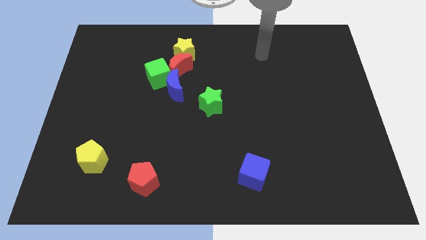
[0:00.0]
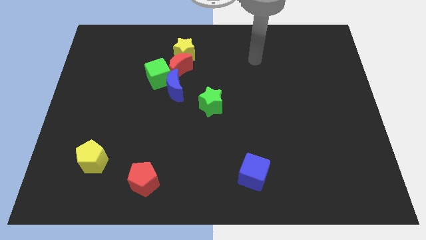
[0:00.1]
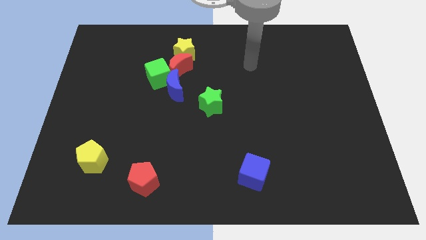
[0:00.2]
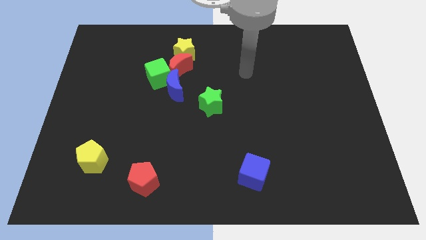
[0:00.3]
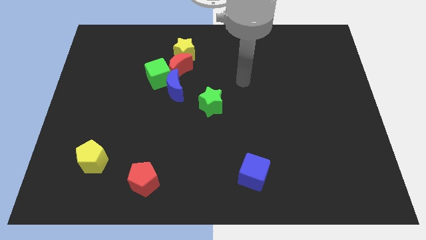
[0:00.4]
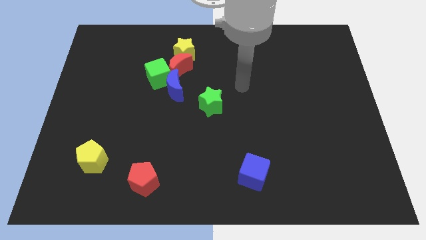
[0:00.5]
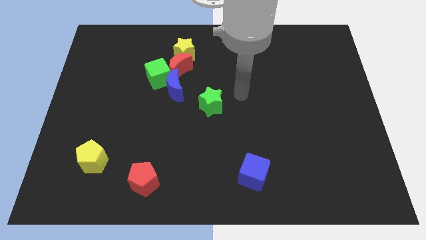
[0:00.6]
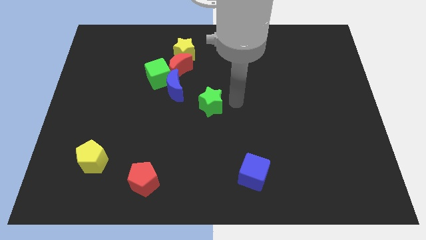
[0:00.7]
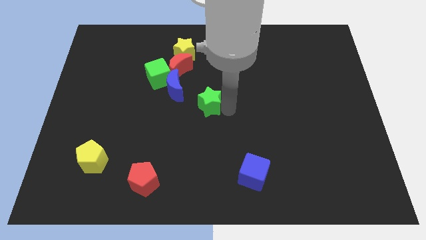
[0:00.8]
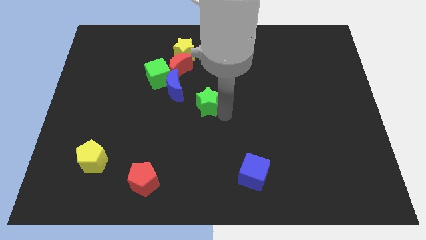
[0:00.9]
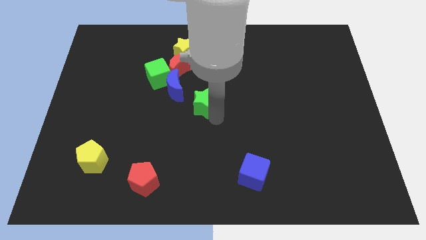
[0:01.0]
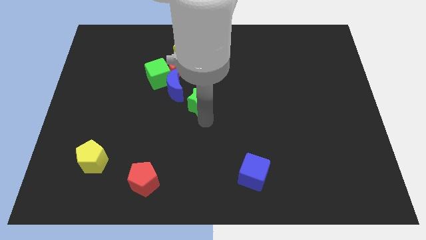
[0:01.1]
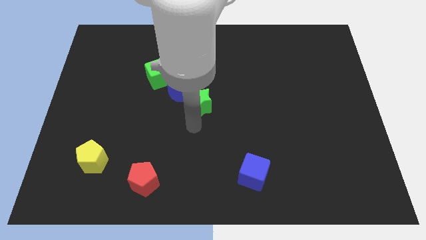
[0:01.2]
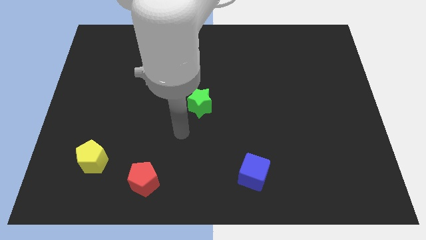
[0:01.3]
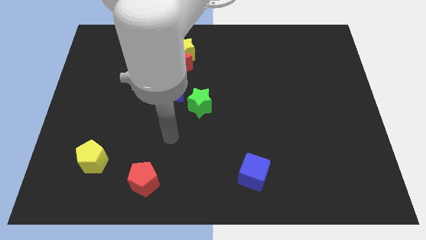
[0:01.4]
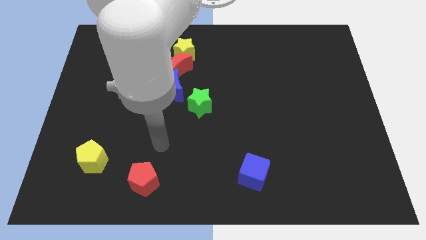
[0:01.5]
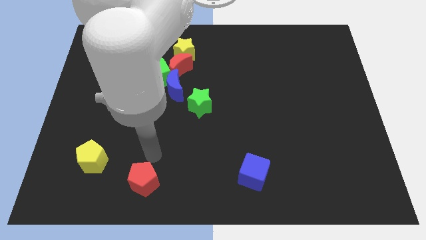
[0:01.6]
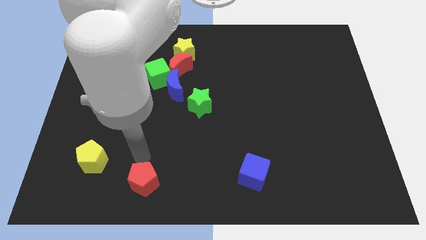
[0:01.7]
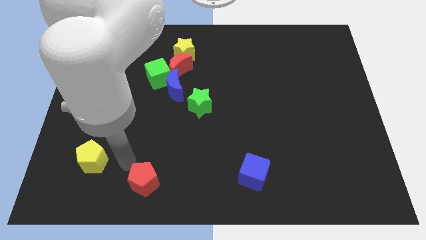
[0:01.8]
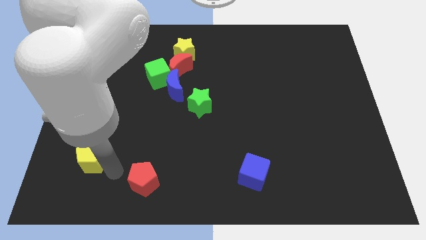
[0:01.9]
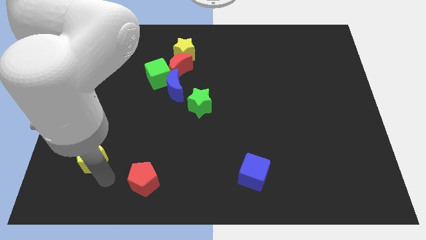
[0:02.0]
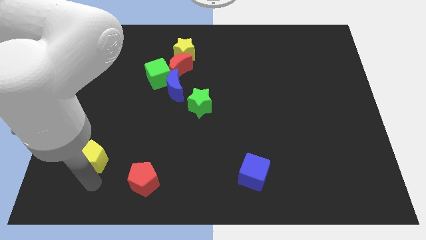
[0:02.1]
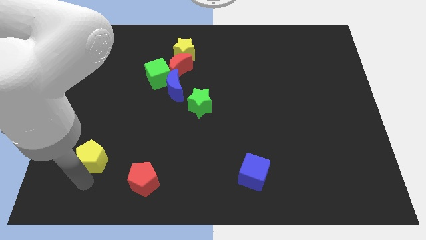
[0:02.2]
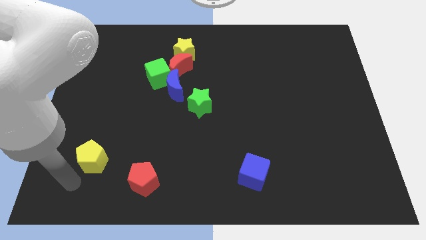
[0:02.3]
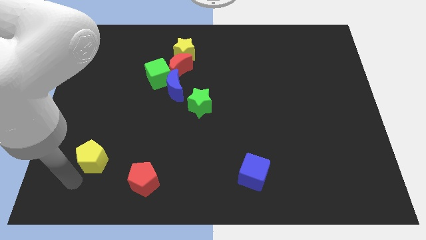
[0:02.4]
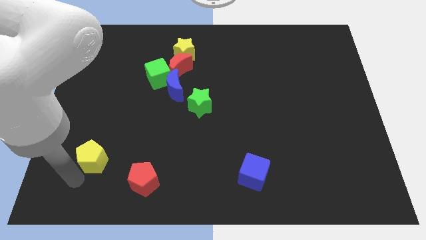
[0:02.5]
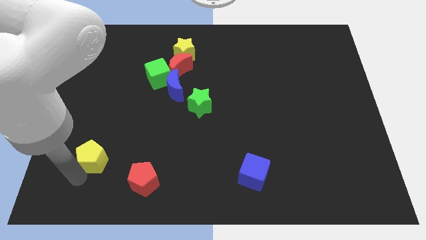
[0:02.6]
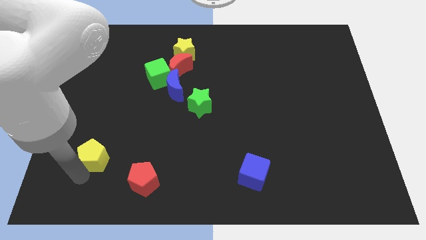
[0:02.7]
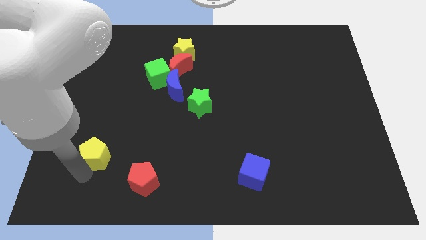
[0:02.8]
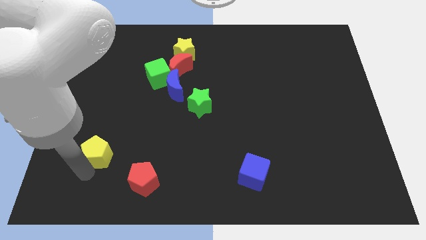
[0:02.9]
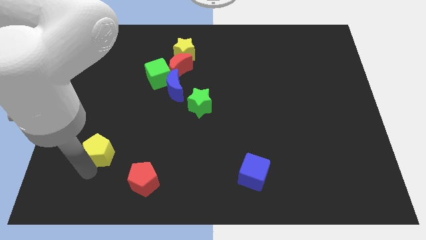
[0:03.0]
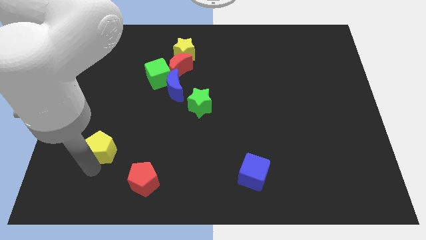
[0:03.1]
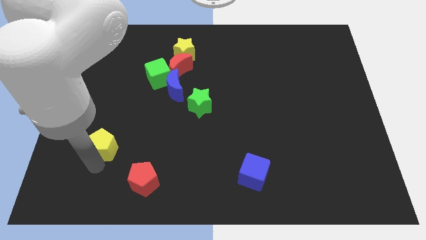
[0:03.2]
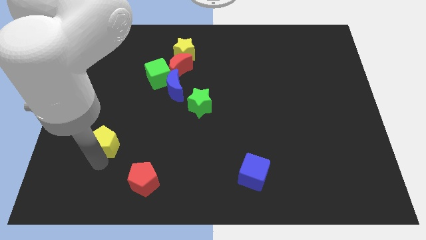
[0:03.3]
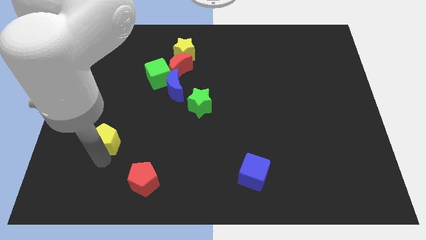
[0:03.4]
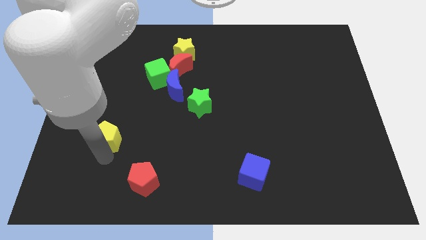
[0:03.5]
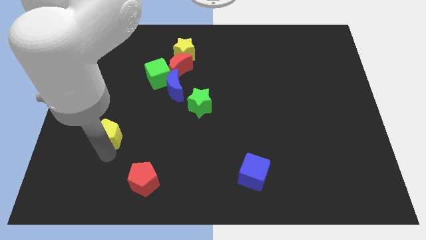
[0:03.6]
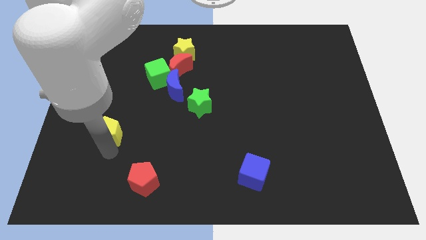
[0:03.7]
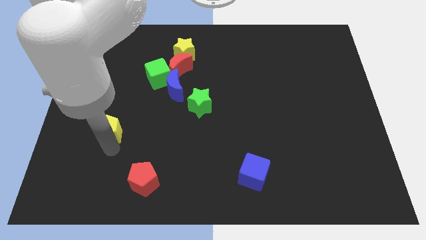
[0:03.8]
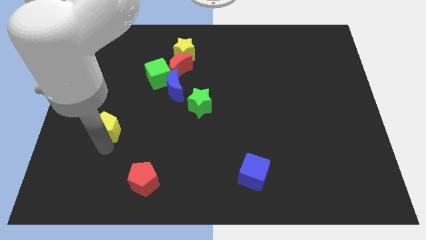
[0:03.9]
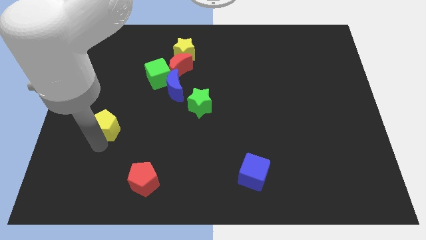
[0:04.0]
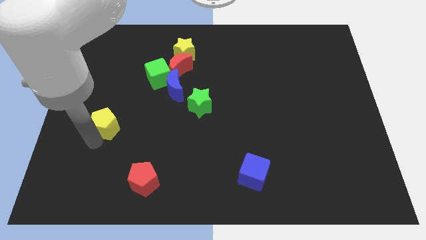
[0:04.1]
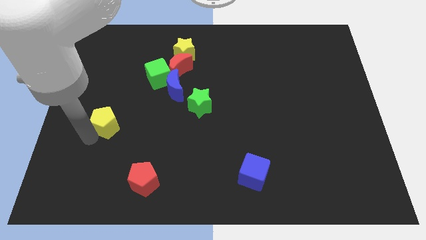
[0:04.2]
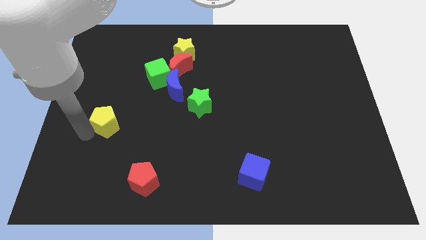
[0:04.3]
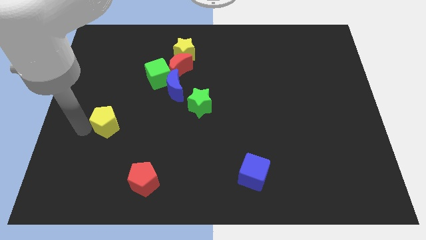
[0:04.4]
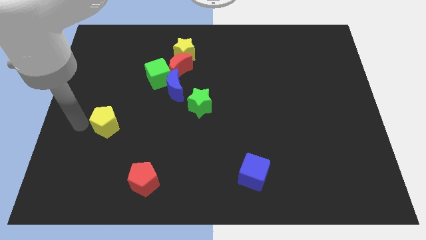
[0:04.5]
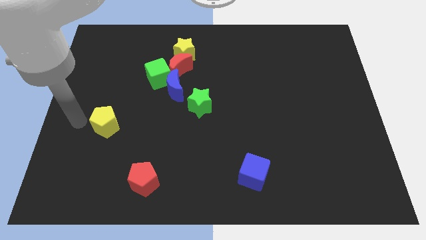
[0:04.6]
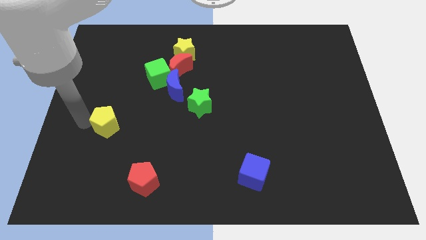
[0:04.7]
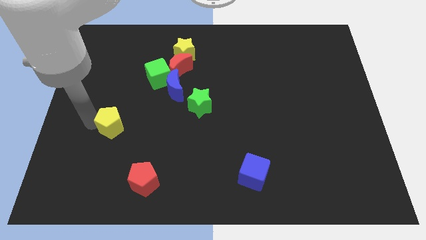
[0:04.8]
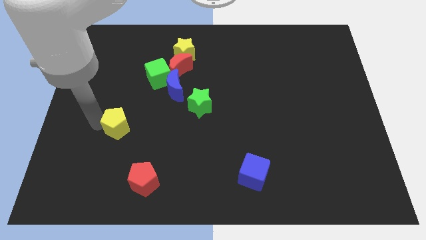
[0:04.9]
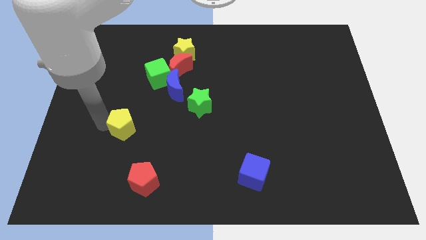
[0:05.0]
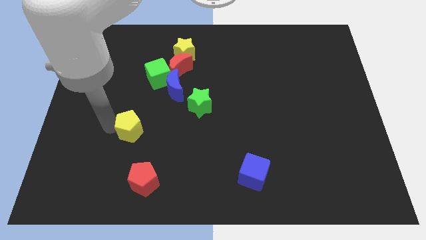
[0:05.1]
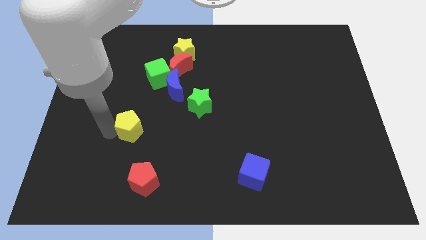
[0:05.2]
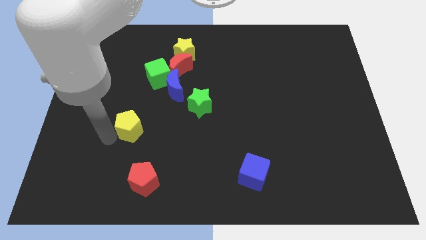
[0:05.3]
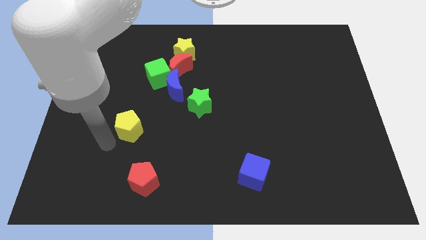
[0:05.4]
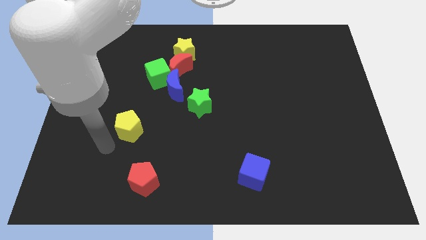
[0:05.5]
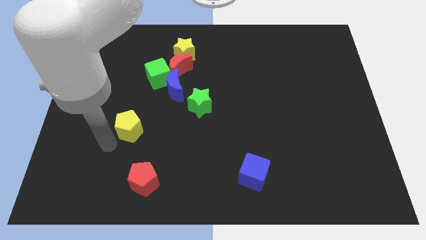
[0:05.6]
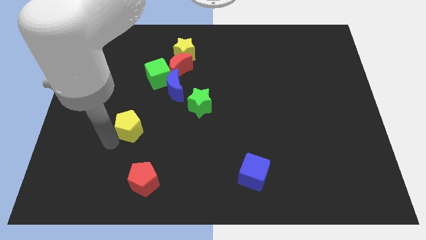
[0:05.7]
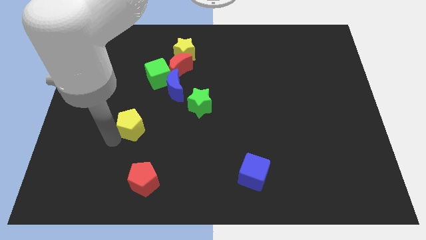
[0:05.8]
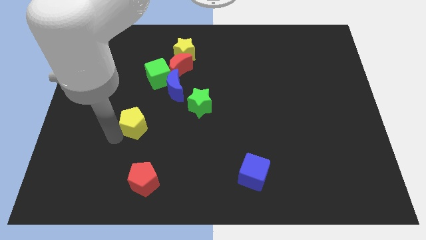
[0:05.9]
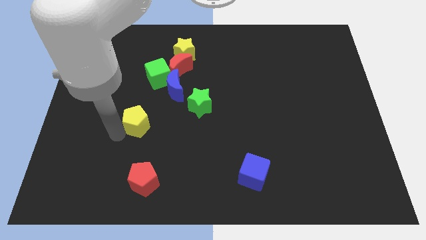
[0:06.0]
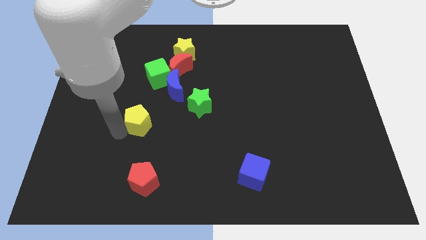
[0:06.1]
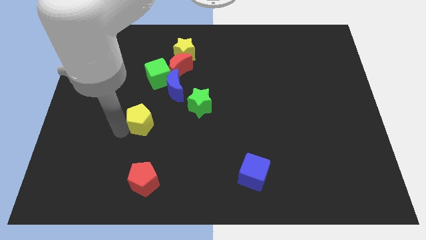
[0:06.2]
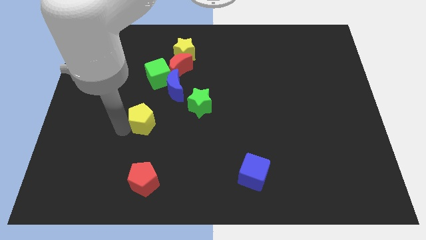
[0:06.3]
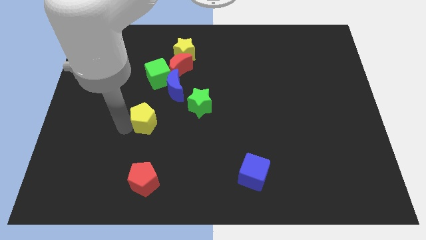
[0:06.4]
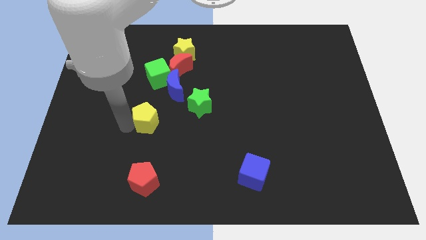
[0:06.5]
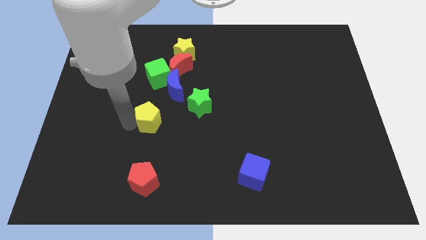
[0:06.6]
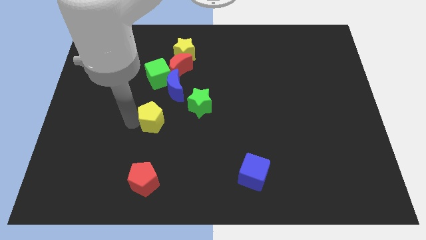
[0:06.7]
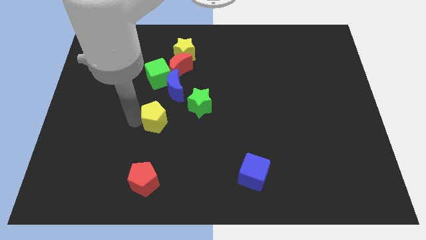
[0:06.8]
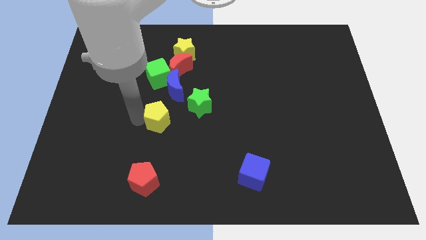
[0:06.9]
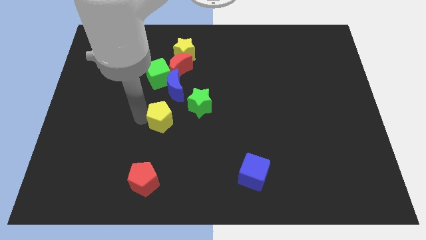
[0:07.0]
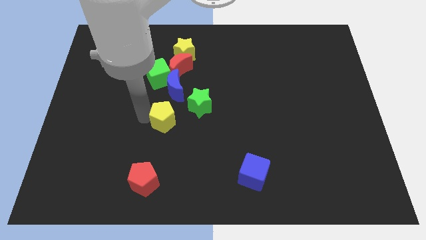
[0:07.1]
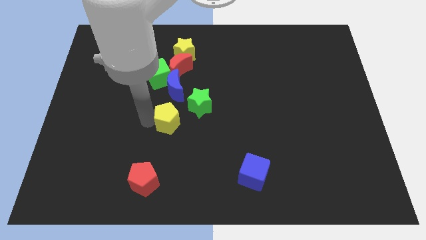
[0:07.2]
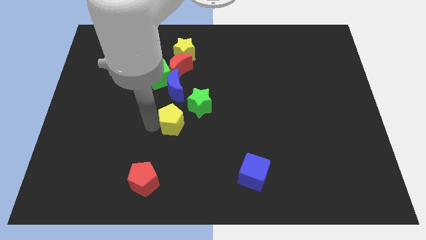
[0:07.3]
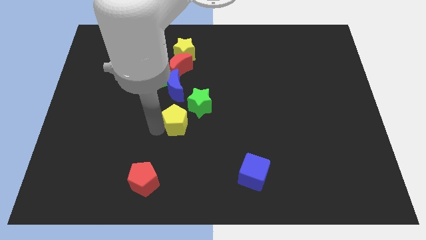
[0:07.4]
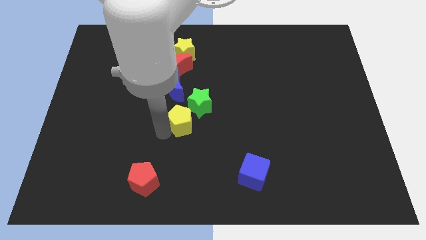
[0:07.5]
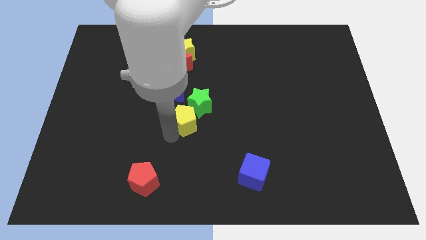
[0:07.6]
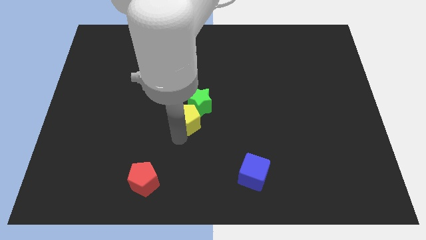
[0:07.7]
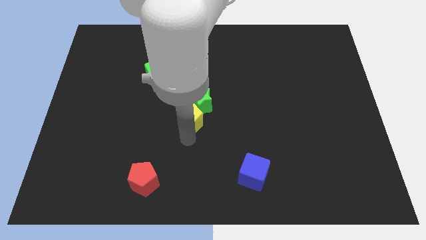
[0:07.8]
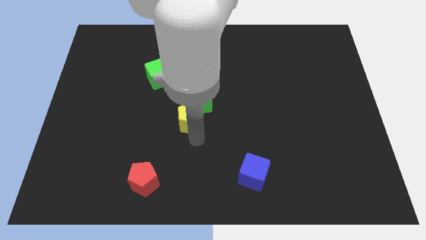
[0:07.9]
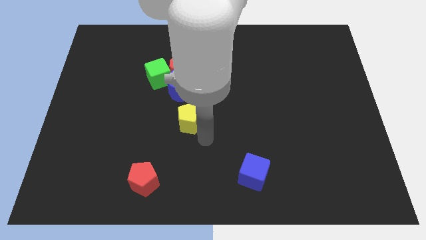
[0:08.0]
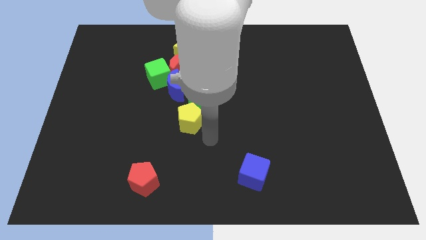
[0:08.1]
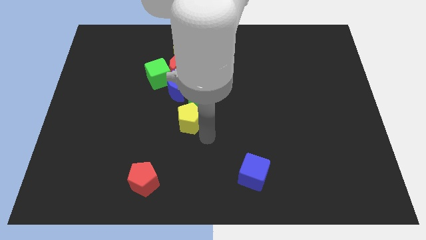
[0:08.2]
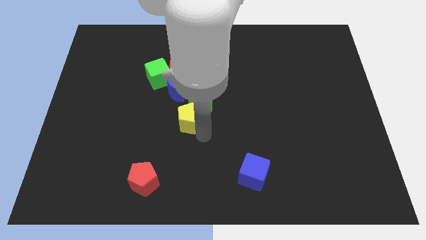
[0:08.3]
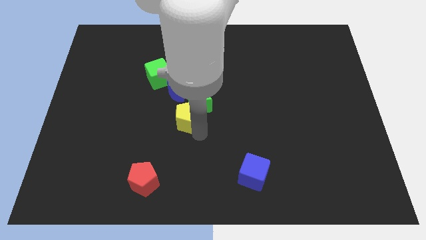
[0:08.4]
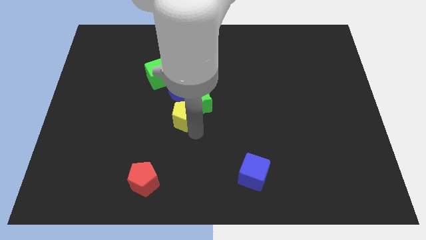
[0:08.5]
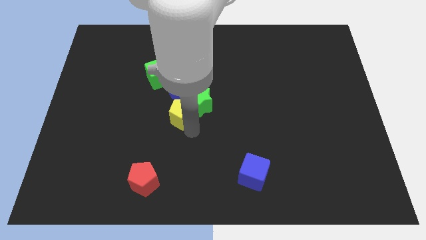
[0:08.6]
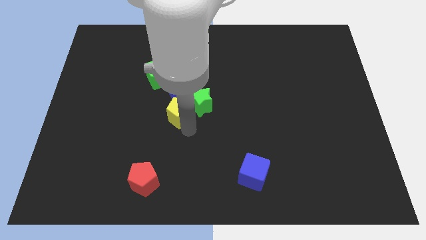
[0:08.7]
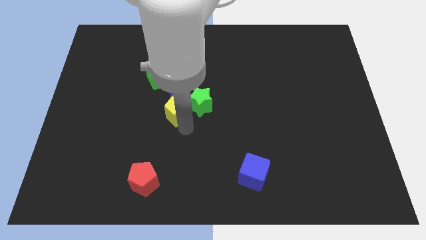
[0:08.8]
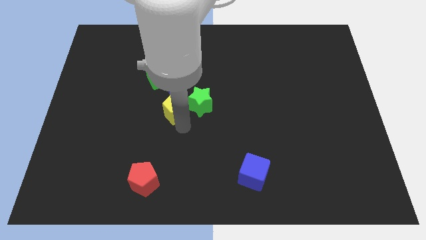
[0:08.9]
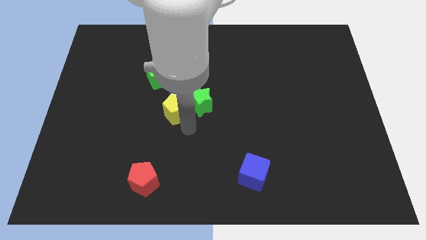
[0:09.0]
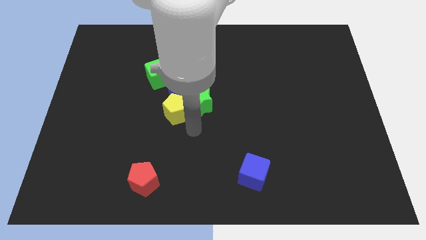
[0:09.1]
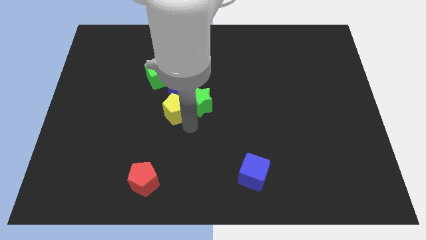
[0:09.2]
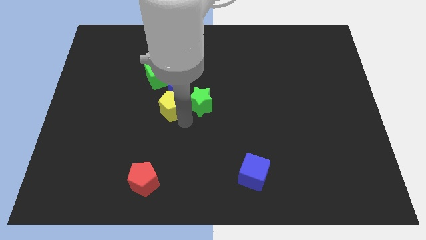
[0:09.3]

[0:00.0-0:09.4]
move the yellow pentagon next to the blue moon
